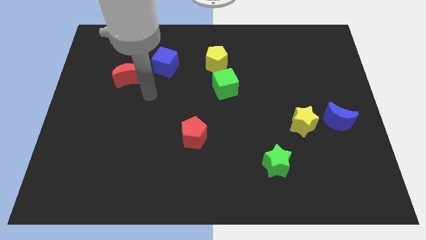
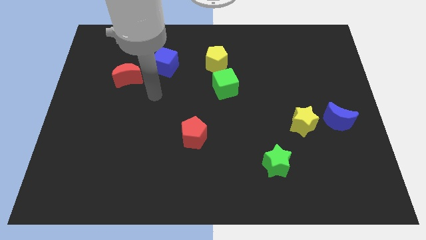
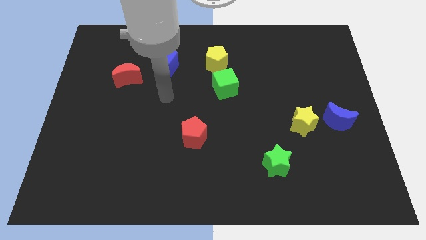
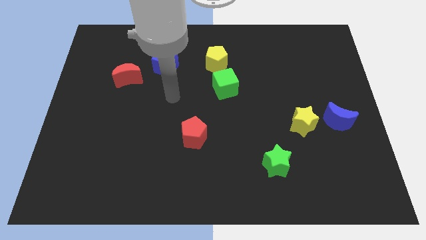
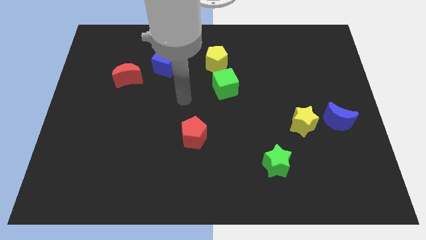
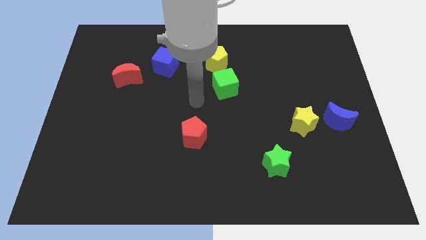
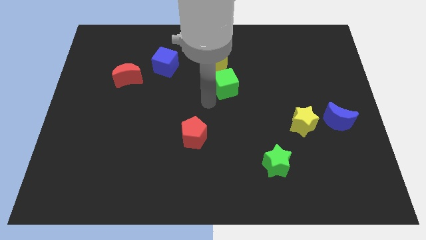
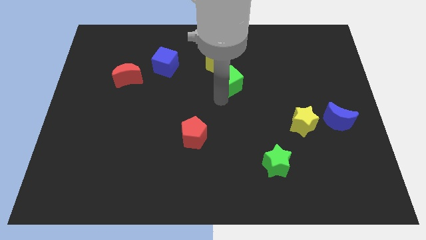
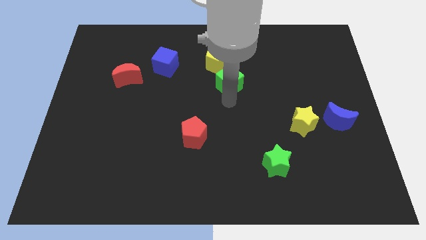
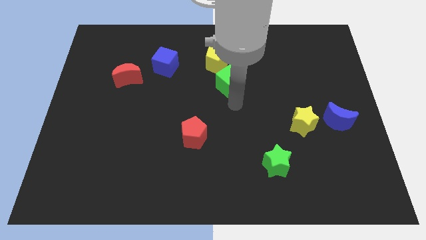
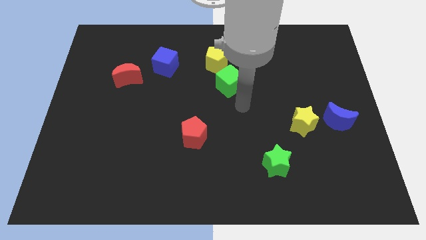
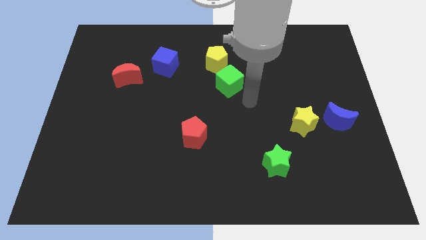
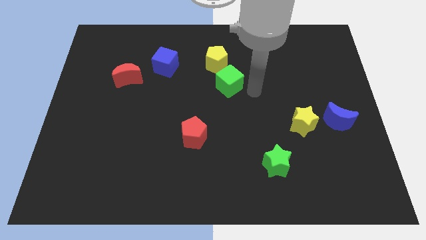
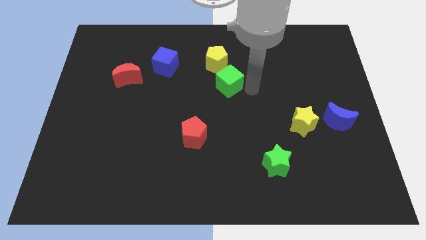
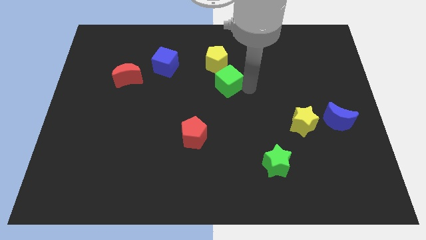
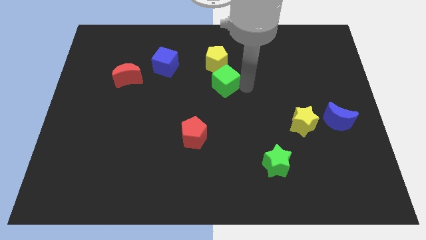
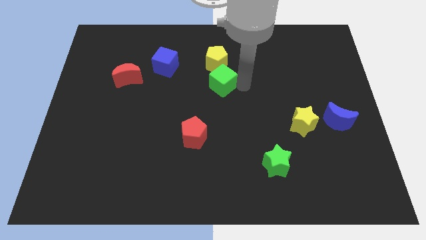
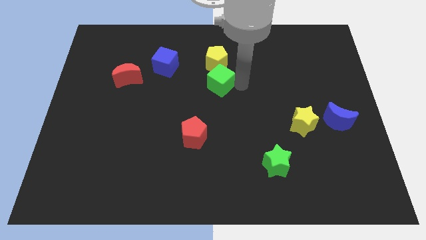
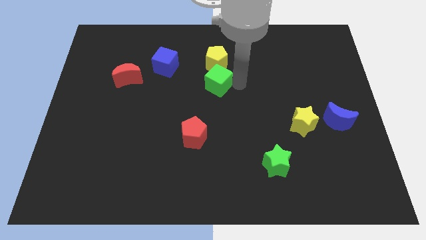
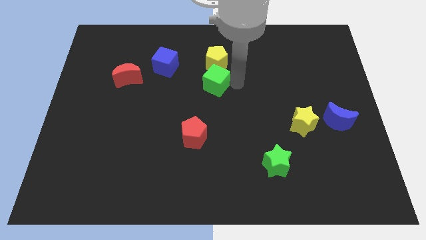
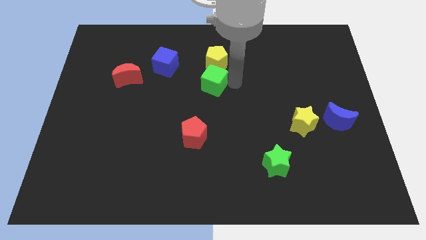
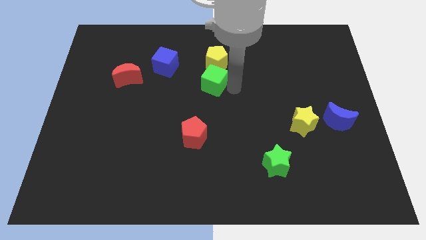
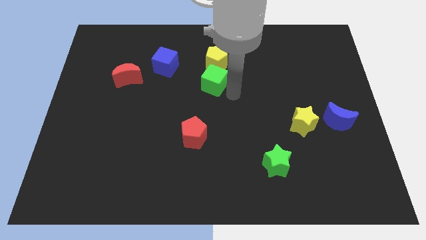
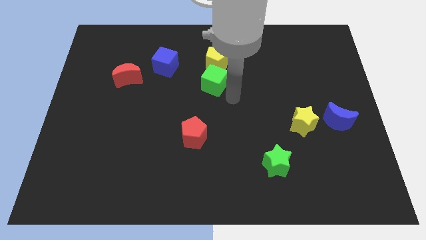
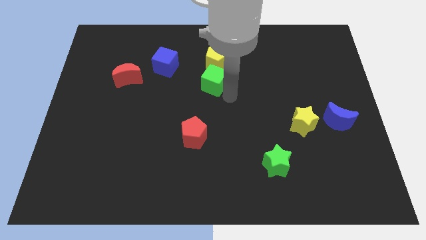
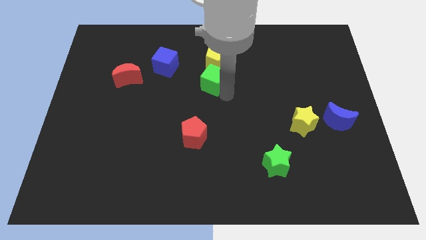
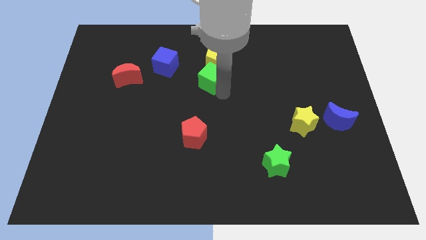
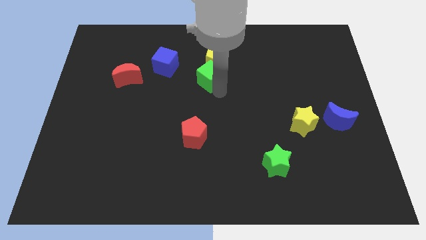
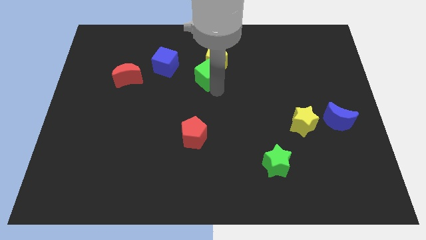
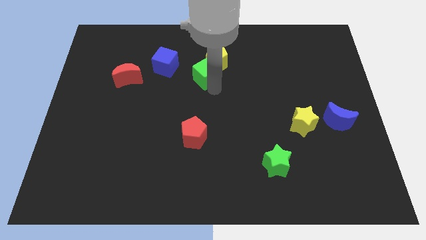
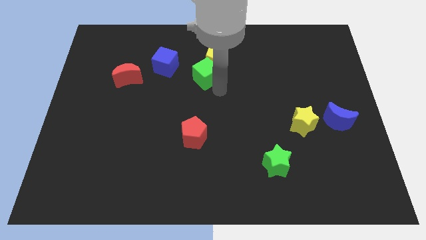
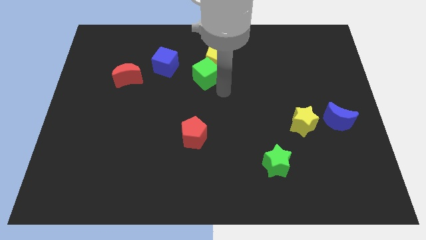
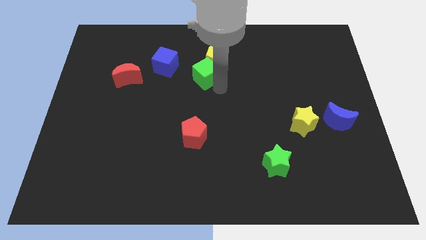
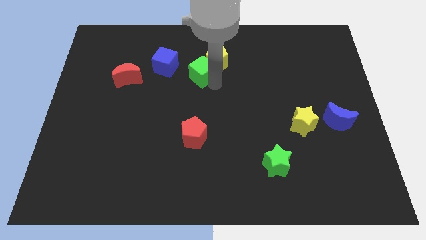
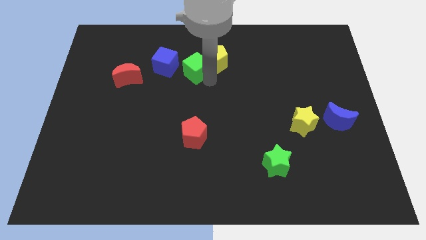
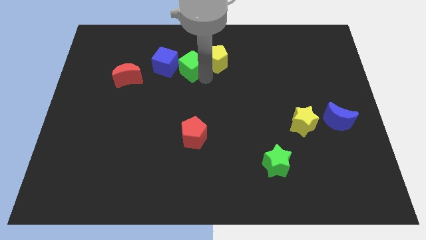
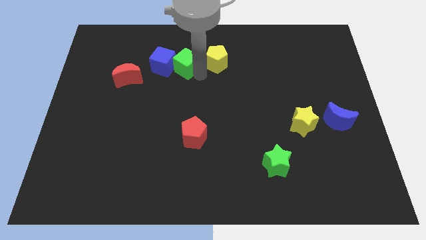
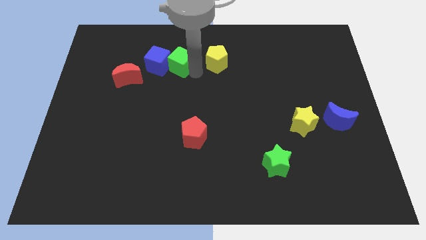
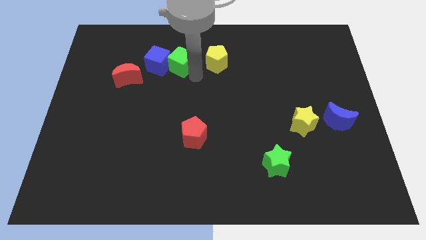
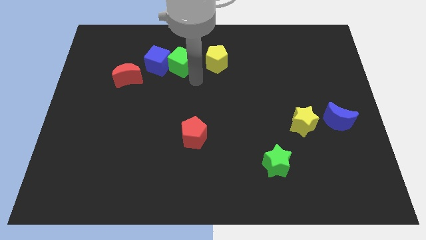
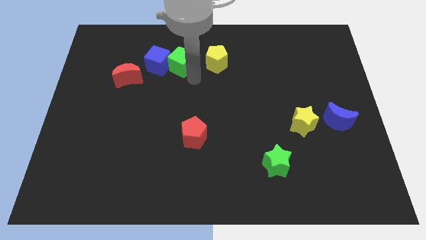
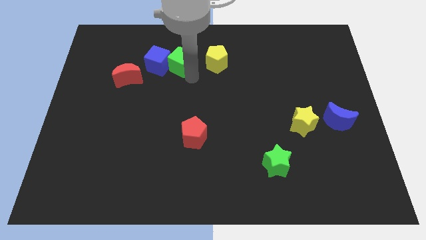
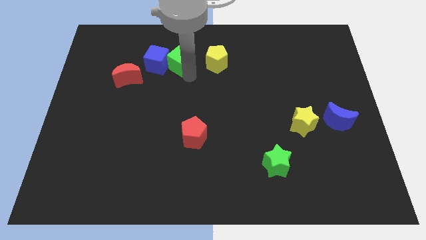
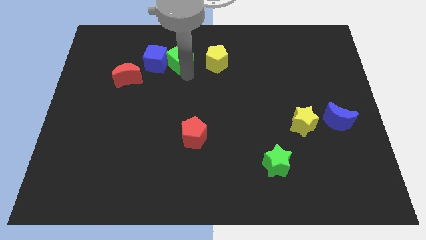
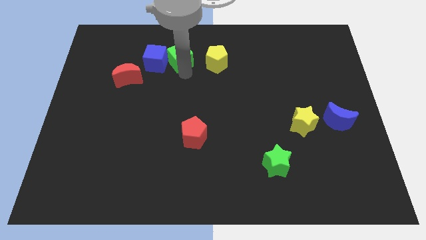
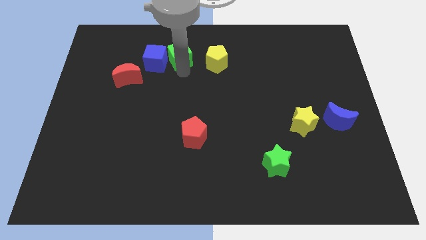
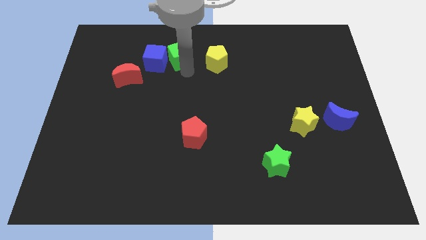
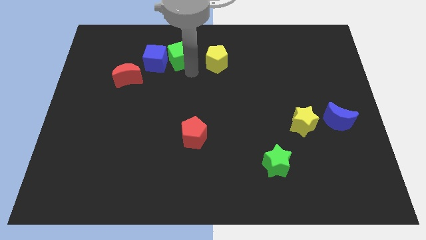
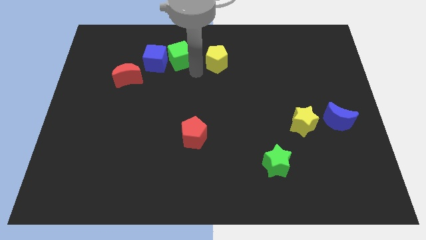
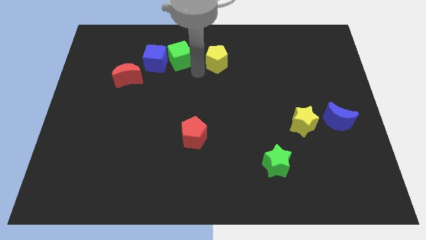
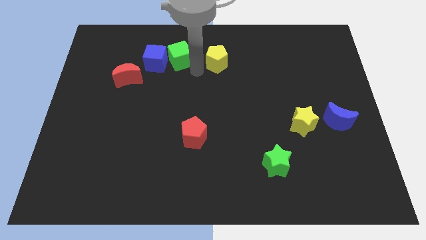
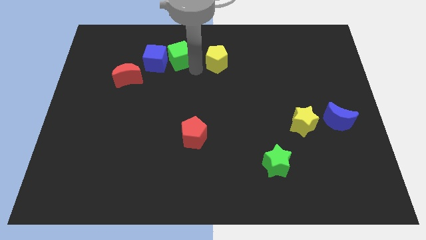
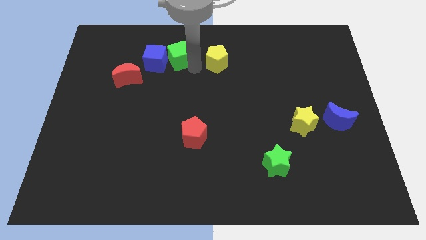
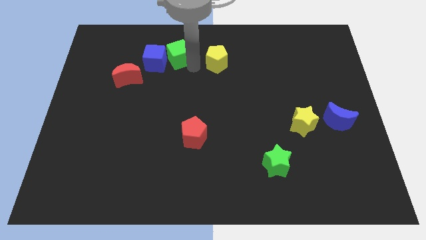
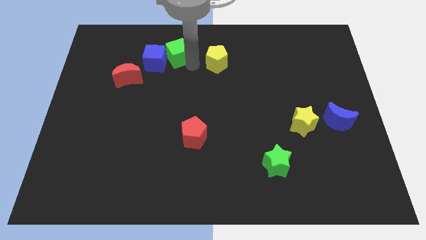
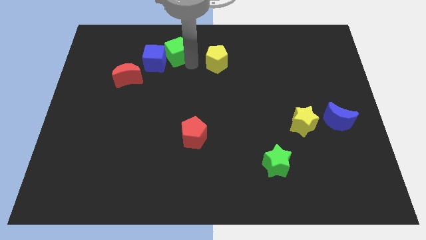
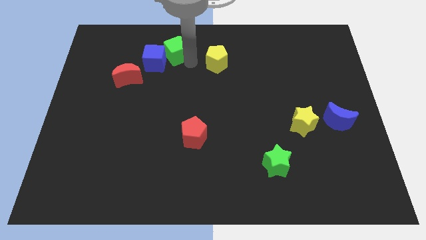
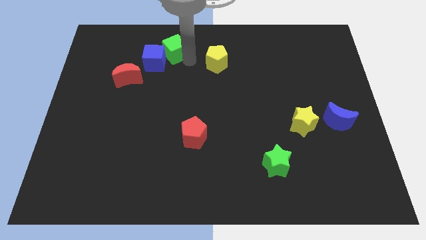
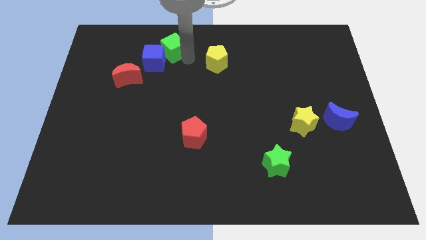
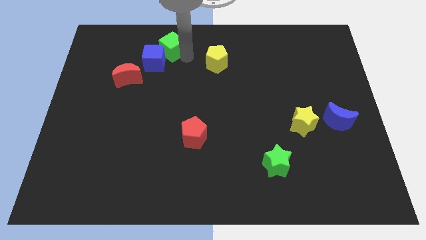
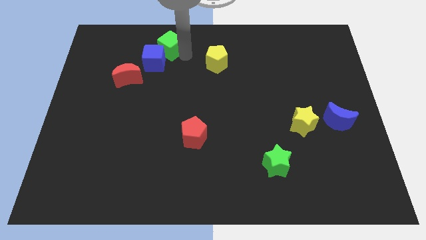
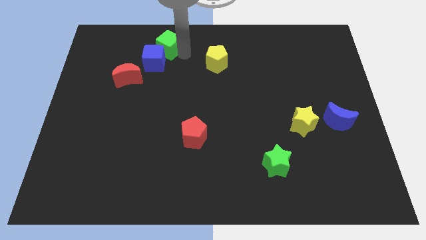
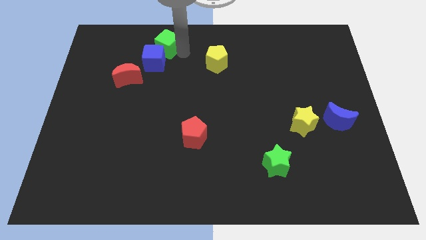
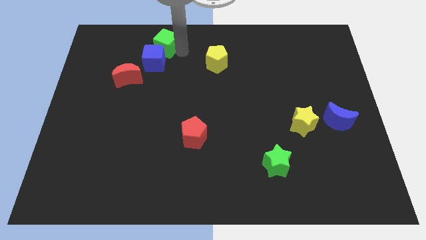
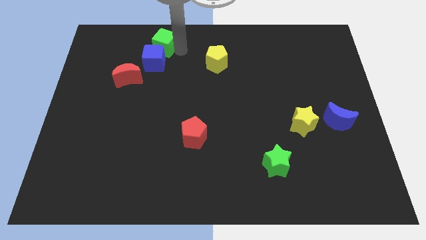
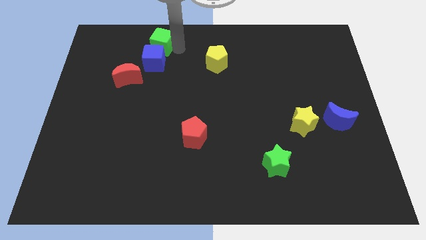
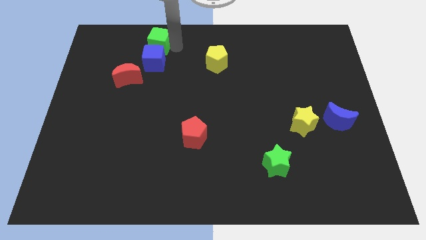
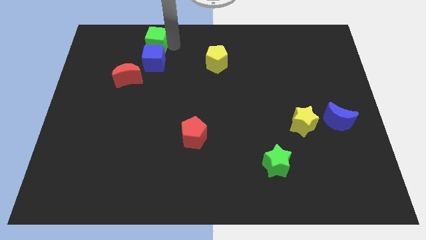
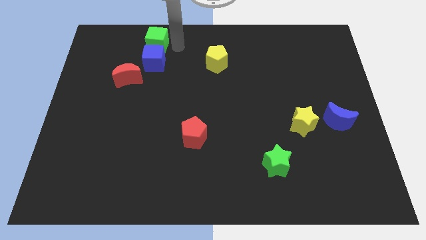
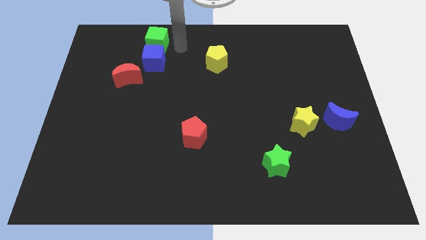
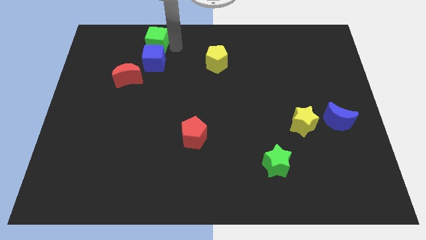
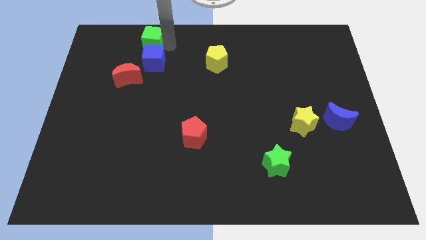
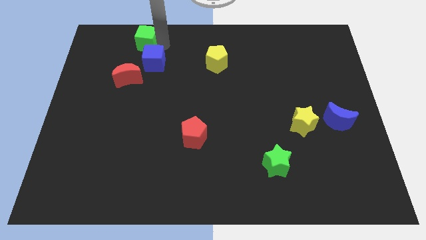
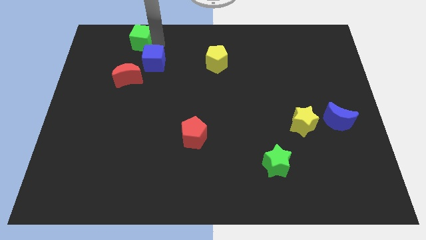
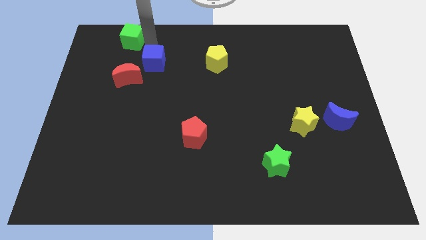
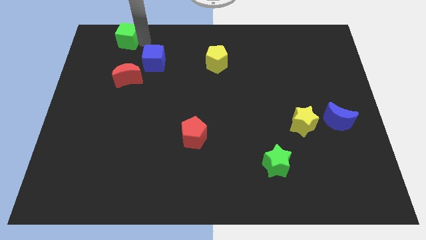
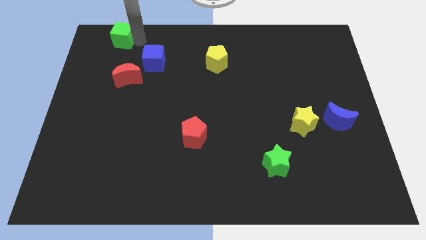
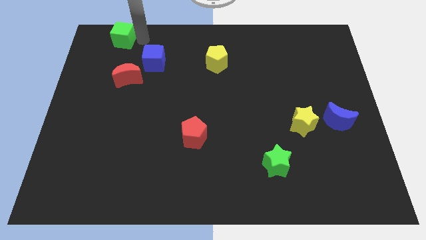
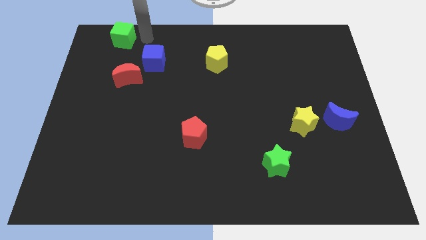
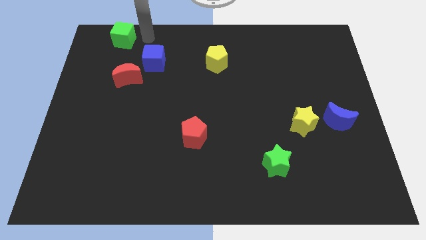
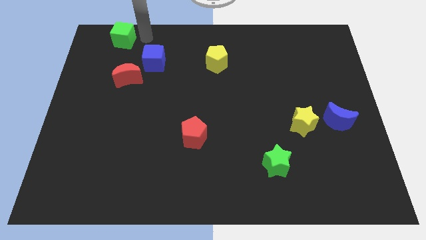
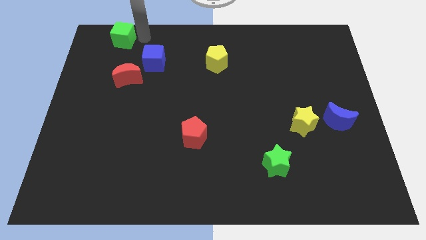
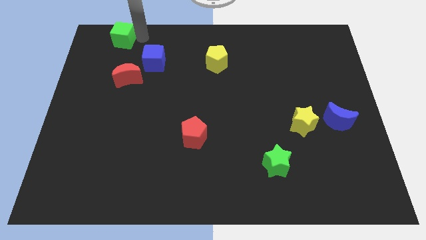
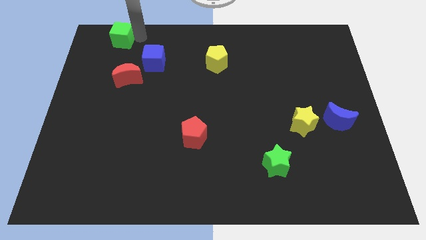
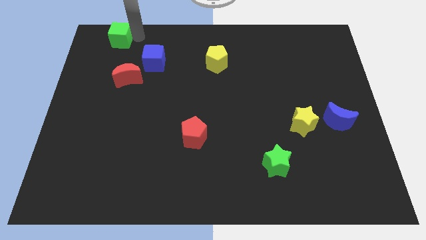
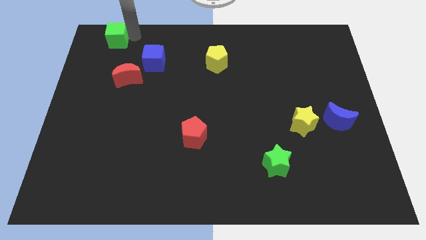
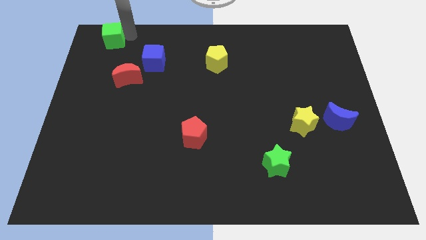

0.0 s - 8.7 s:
slide the green cube to the top left
